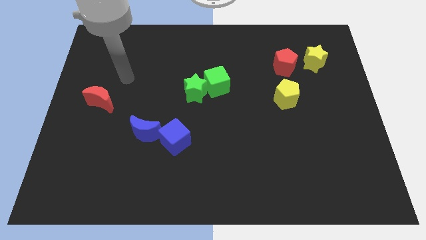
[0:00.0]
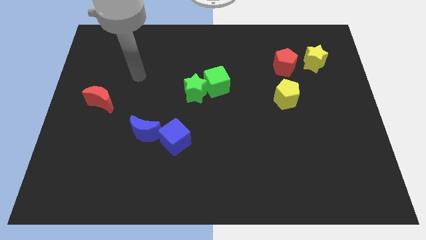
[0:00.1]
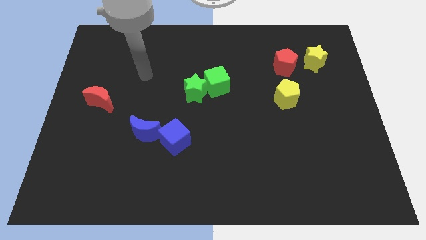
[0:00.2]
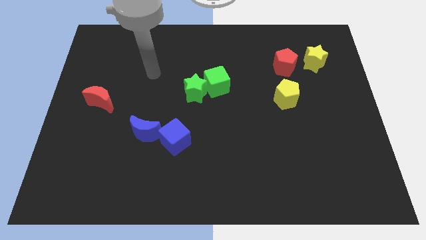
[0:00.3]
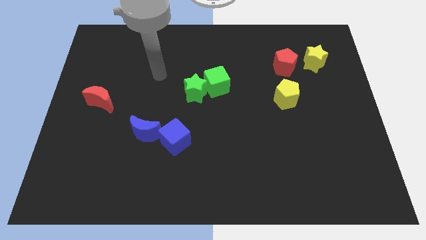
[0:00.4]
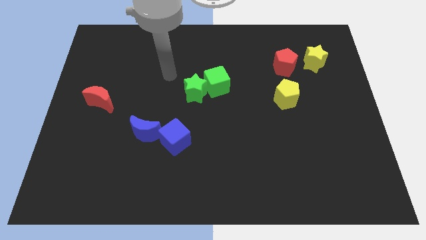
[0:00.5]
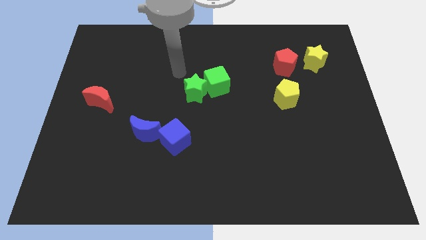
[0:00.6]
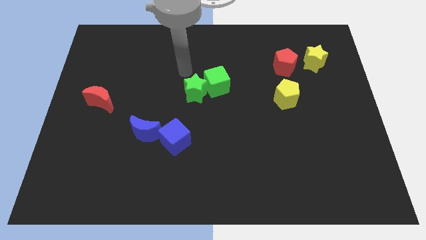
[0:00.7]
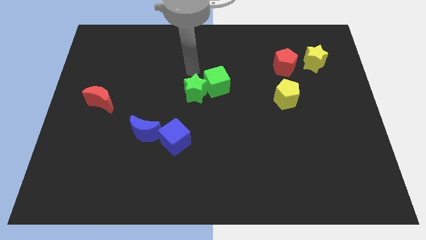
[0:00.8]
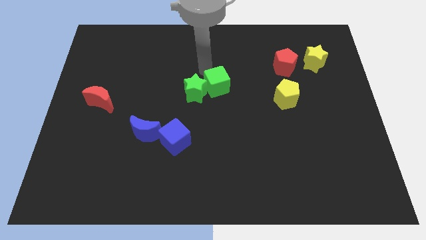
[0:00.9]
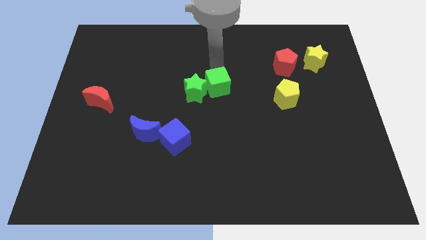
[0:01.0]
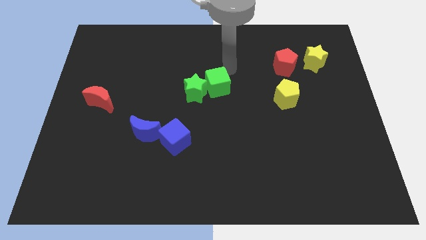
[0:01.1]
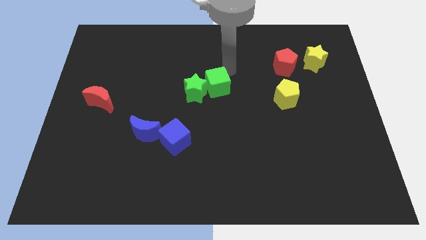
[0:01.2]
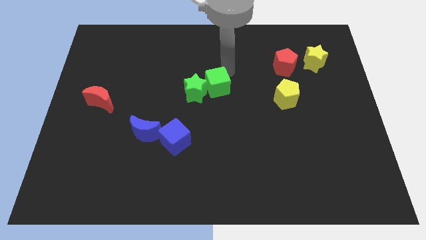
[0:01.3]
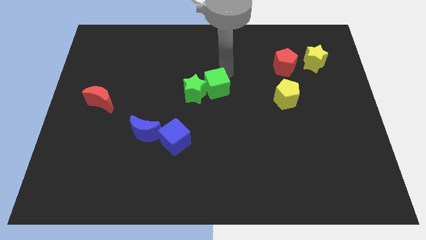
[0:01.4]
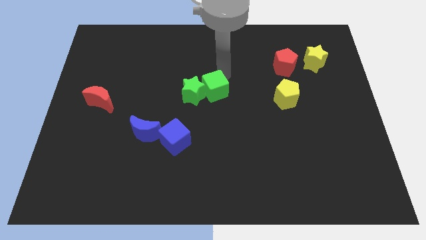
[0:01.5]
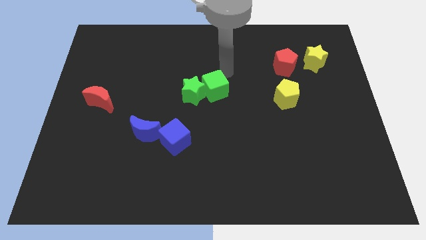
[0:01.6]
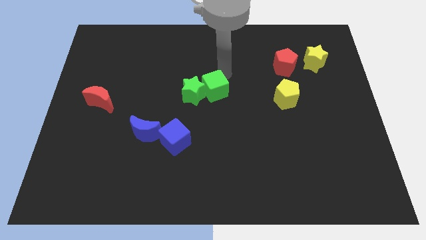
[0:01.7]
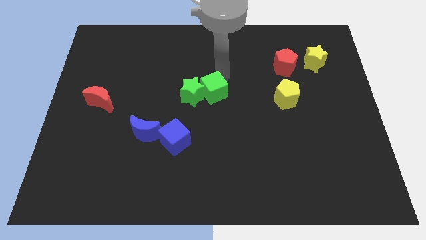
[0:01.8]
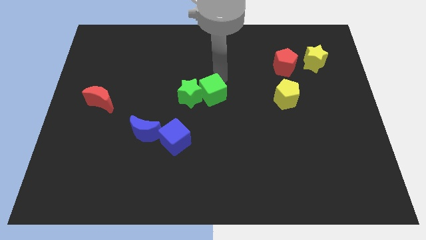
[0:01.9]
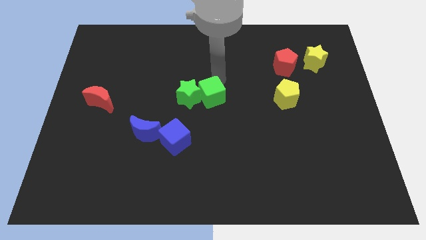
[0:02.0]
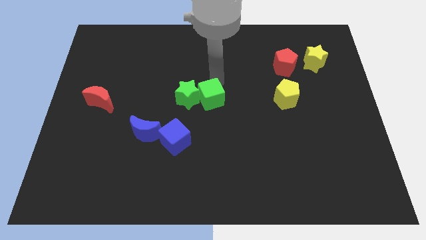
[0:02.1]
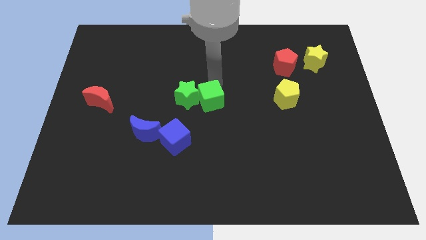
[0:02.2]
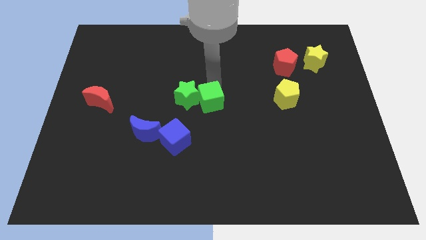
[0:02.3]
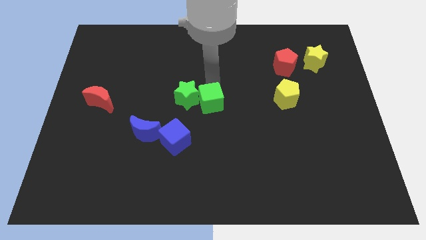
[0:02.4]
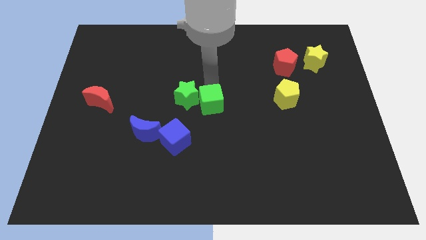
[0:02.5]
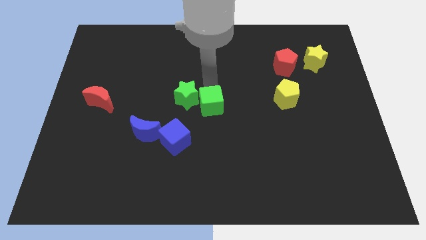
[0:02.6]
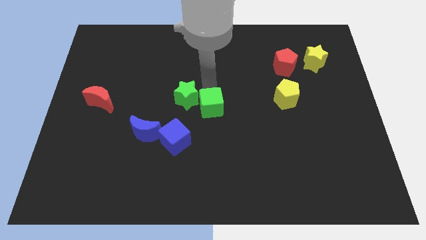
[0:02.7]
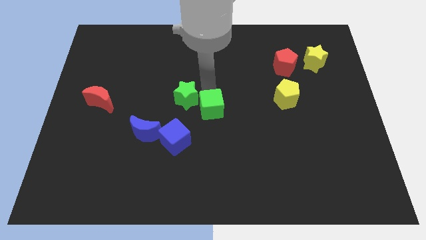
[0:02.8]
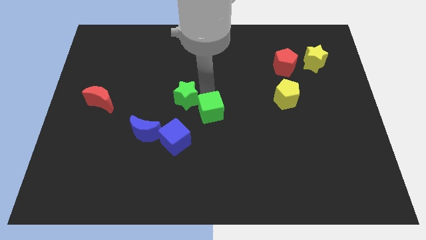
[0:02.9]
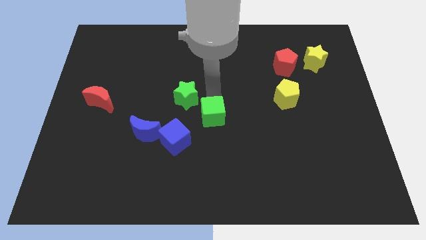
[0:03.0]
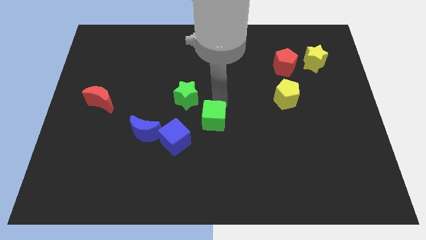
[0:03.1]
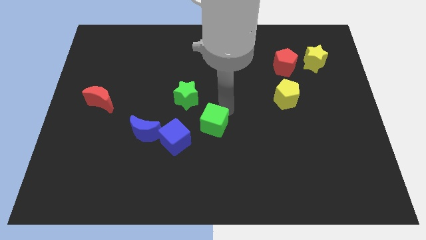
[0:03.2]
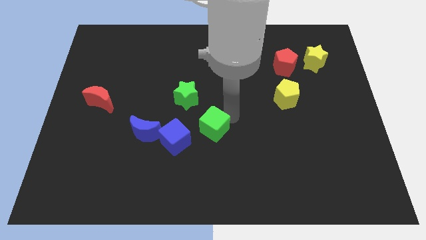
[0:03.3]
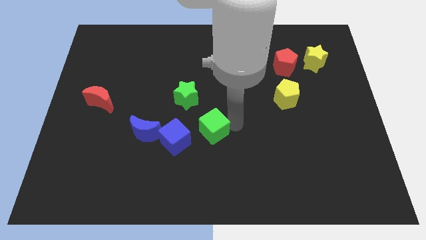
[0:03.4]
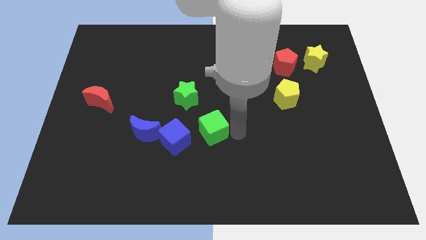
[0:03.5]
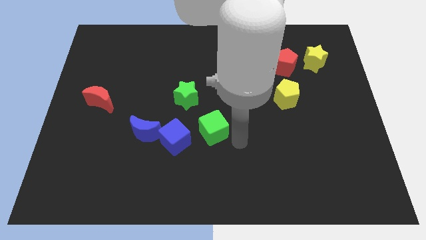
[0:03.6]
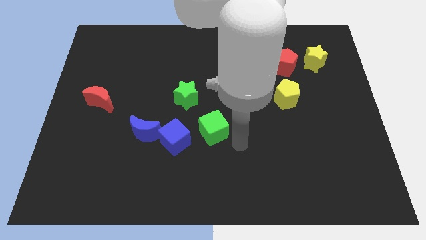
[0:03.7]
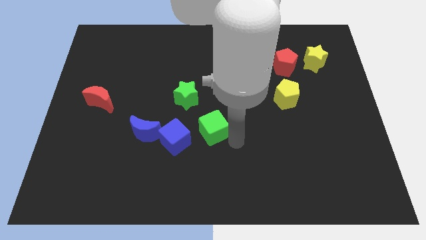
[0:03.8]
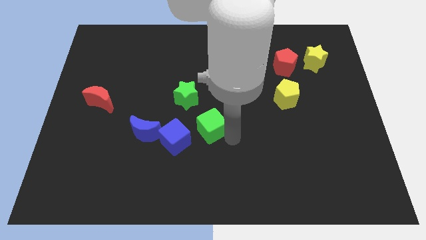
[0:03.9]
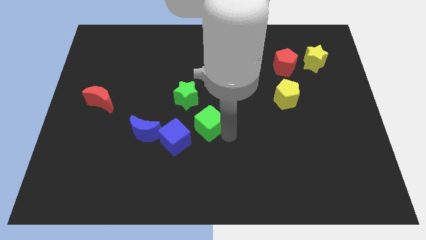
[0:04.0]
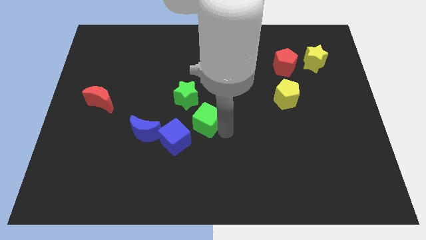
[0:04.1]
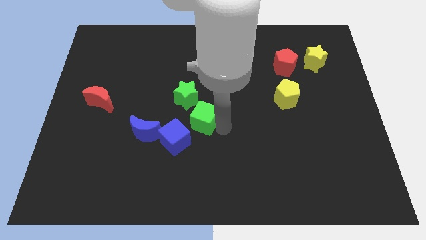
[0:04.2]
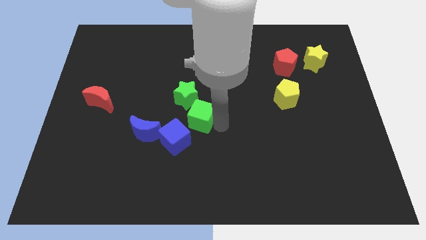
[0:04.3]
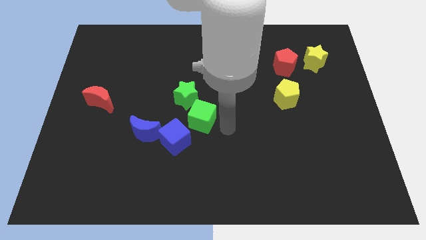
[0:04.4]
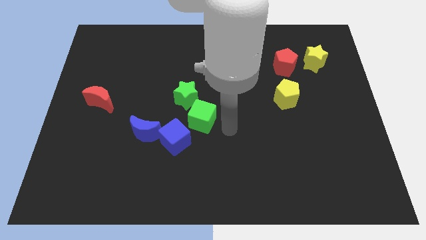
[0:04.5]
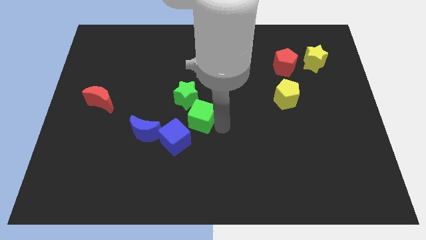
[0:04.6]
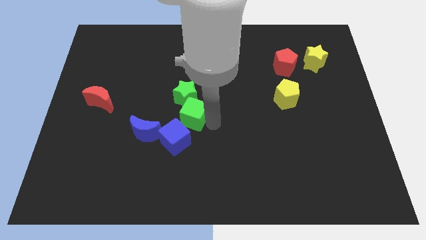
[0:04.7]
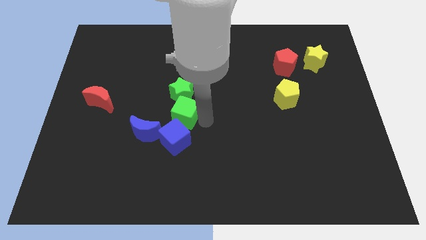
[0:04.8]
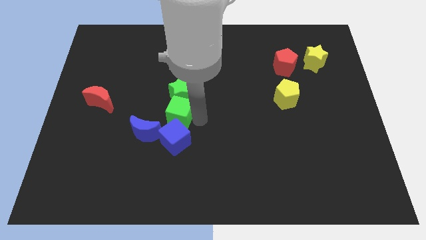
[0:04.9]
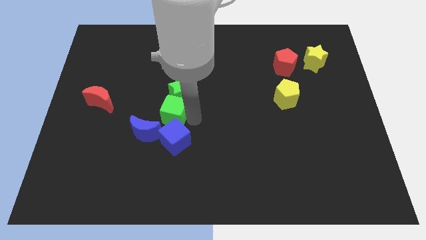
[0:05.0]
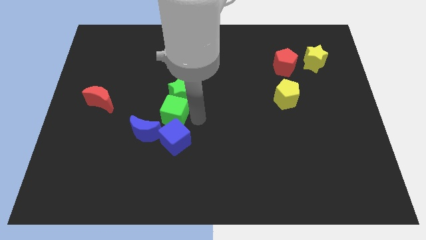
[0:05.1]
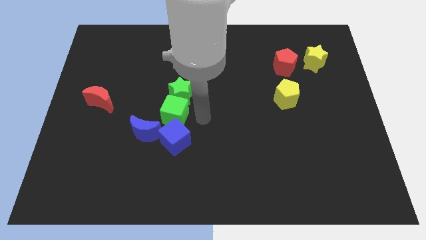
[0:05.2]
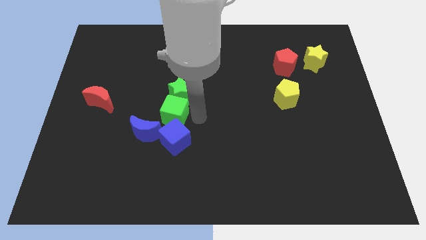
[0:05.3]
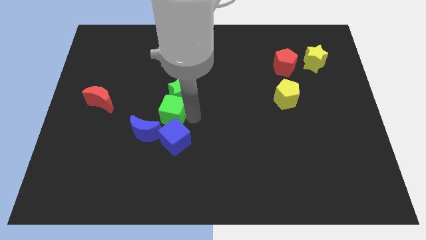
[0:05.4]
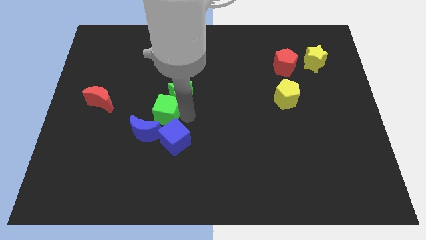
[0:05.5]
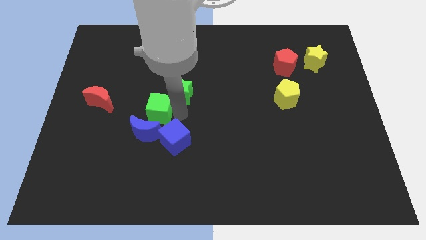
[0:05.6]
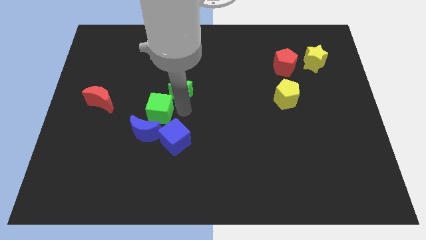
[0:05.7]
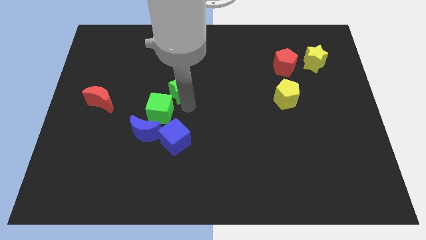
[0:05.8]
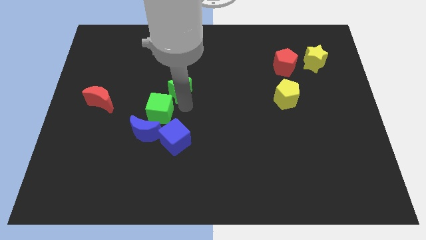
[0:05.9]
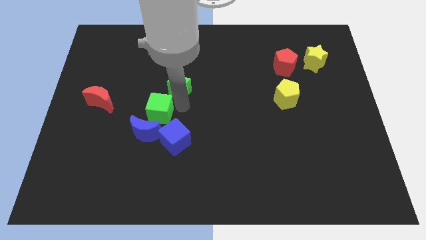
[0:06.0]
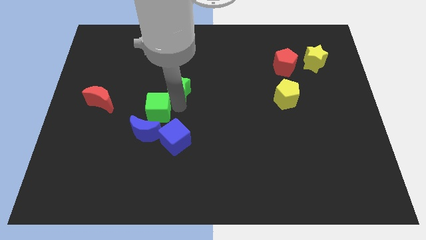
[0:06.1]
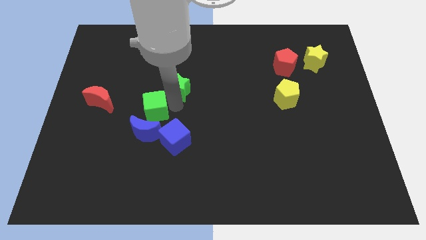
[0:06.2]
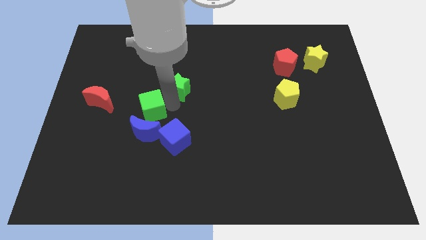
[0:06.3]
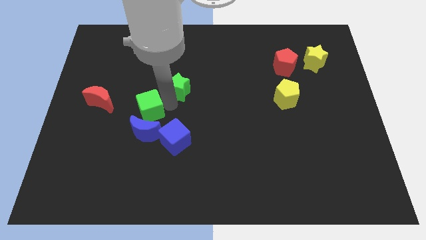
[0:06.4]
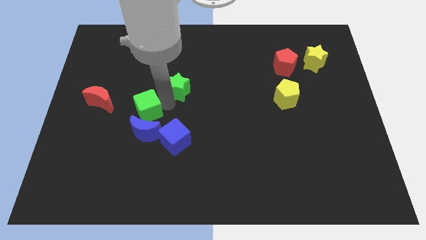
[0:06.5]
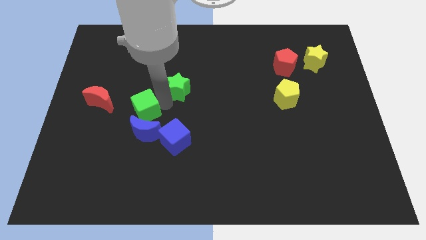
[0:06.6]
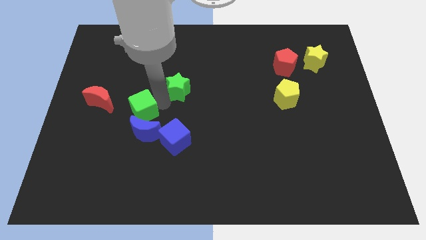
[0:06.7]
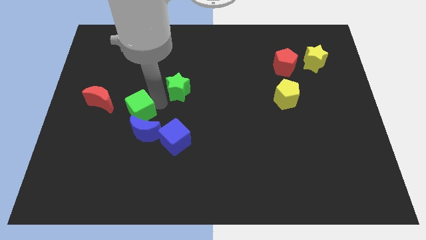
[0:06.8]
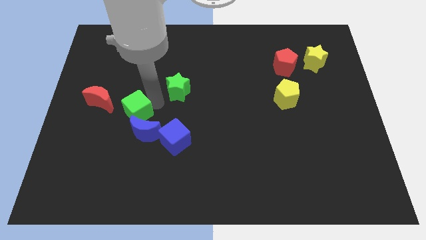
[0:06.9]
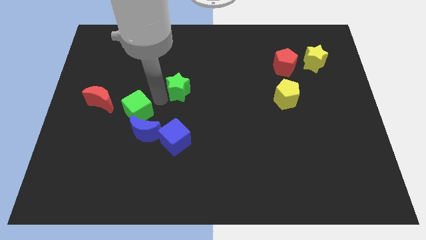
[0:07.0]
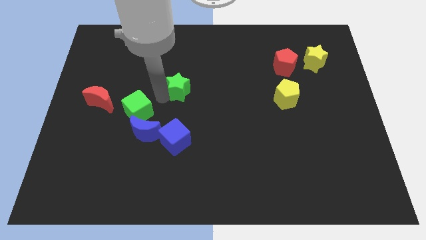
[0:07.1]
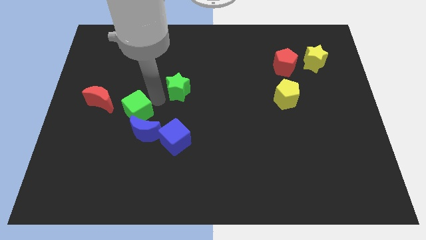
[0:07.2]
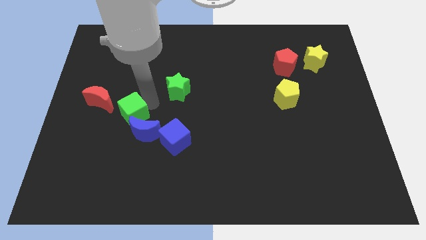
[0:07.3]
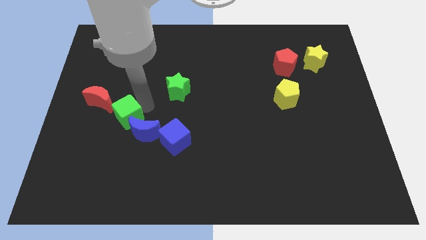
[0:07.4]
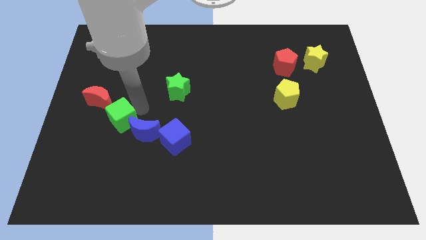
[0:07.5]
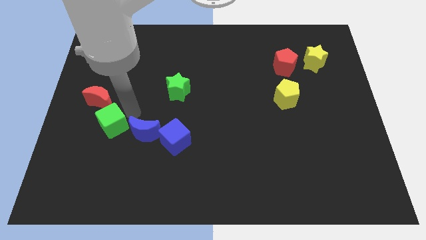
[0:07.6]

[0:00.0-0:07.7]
slide the green cube to the bottom of the red moon
